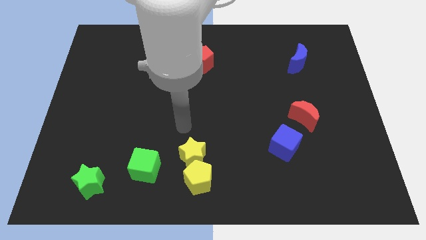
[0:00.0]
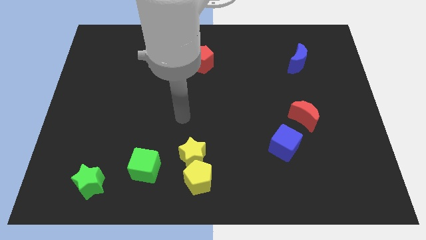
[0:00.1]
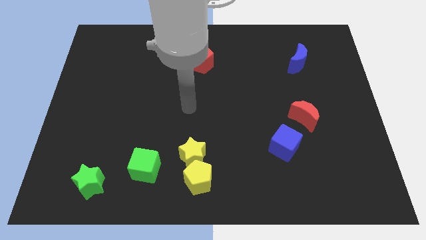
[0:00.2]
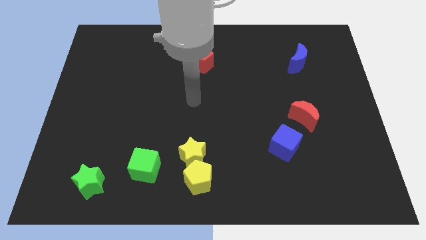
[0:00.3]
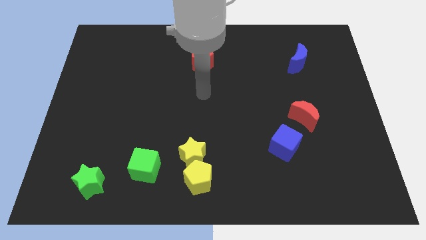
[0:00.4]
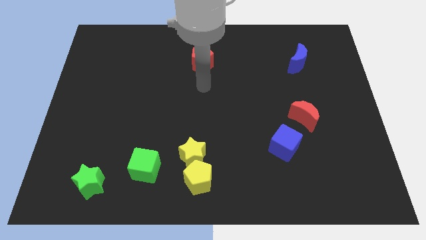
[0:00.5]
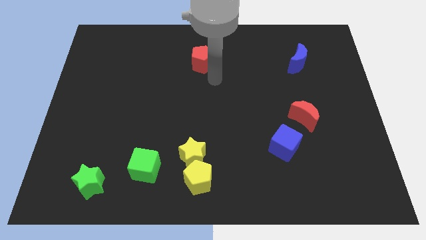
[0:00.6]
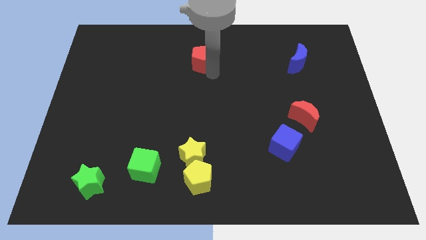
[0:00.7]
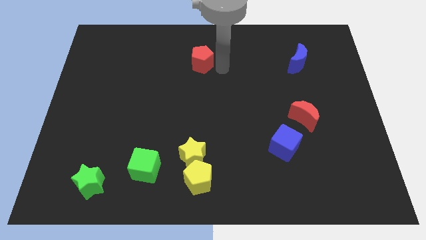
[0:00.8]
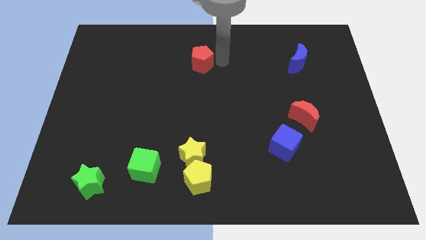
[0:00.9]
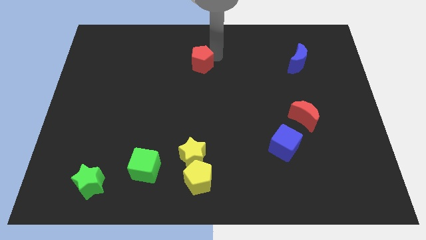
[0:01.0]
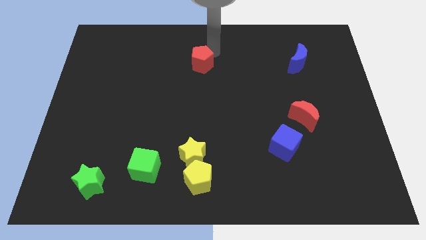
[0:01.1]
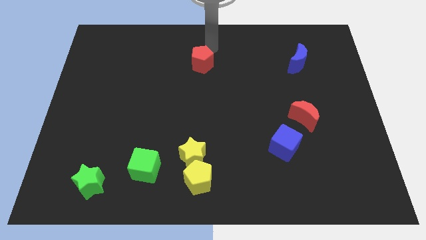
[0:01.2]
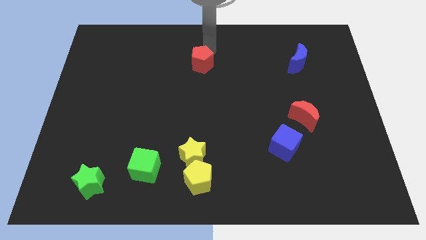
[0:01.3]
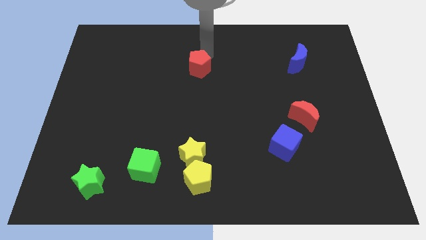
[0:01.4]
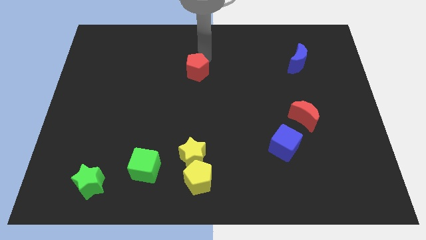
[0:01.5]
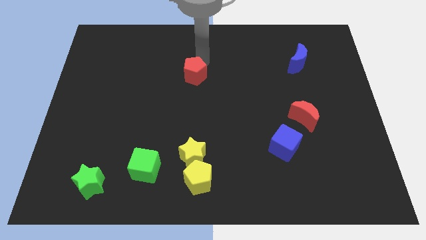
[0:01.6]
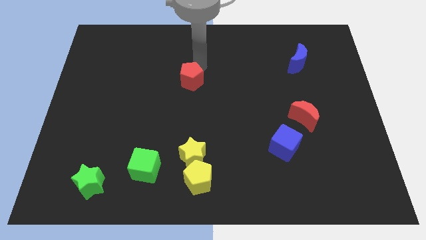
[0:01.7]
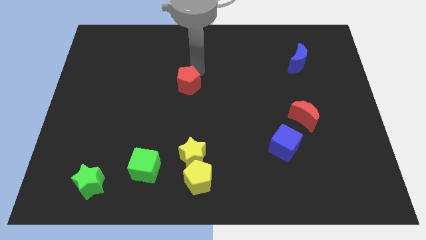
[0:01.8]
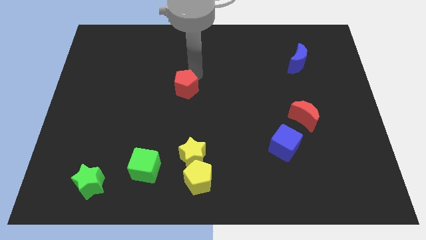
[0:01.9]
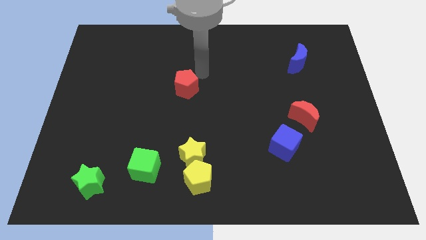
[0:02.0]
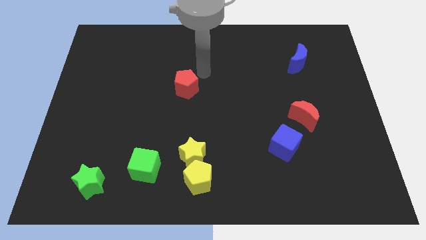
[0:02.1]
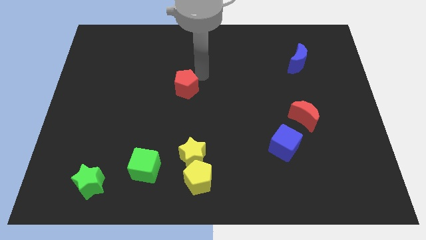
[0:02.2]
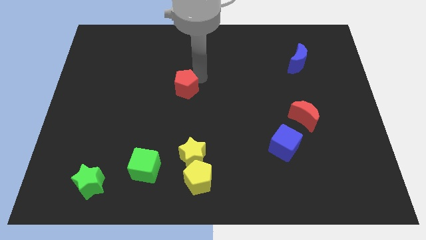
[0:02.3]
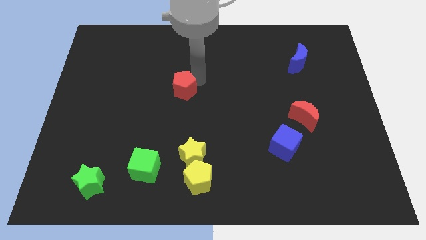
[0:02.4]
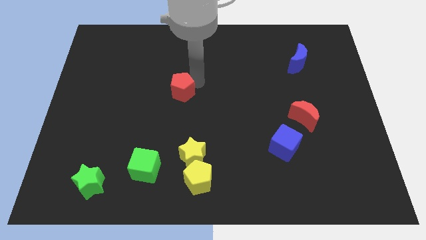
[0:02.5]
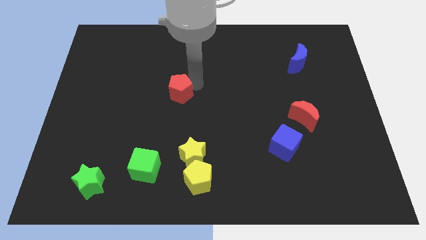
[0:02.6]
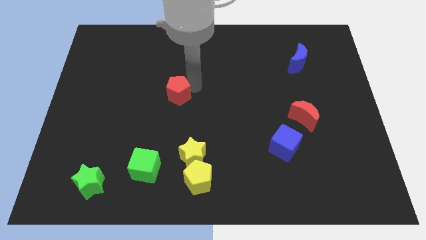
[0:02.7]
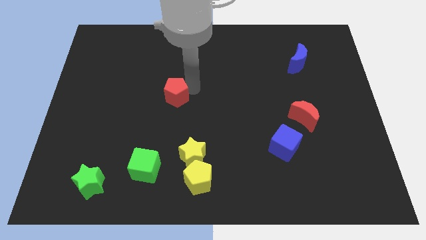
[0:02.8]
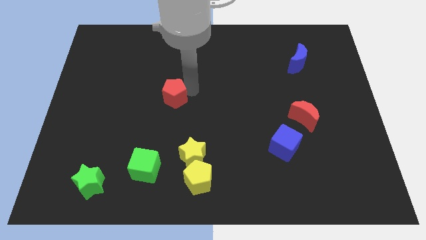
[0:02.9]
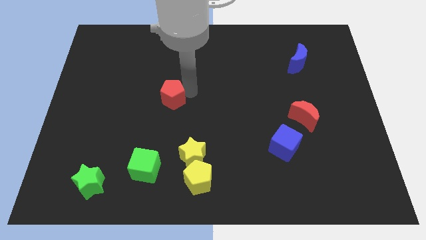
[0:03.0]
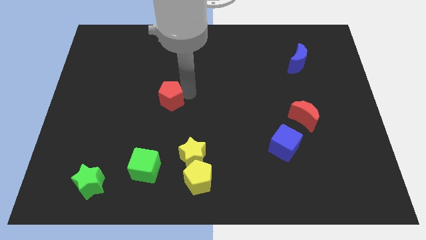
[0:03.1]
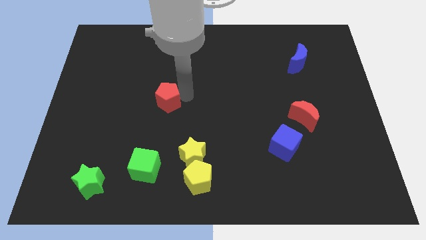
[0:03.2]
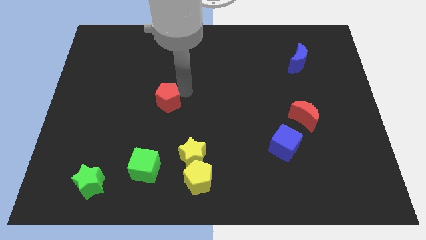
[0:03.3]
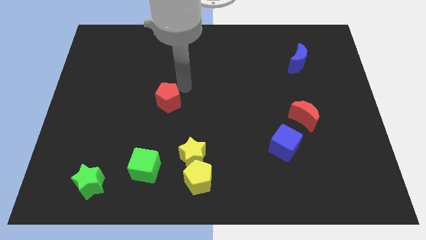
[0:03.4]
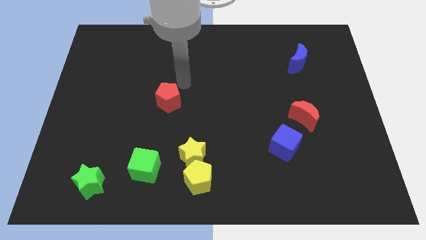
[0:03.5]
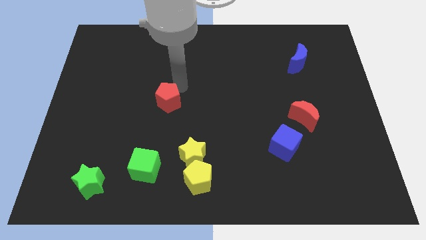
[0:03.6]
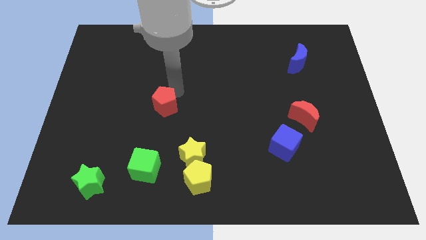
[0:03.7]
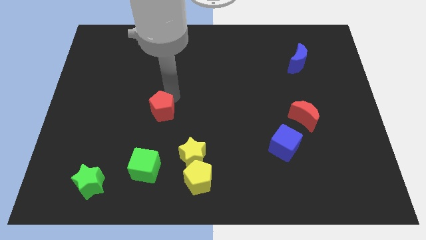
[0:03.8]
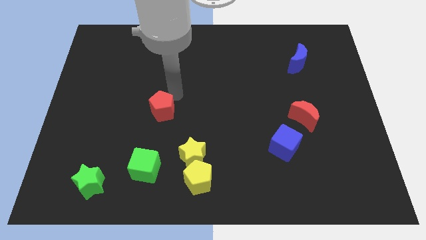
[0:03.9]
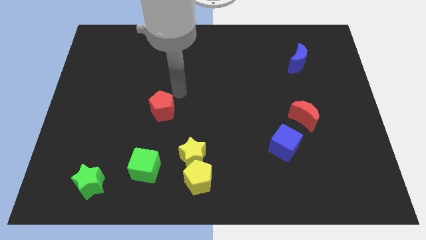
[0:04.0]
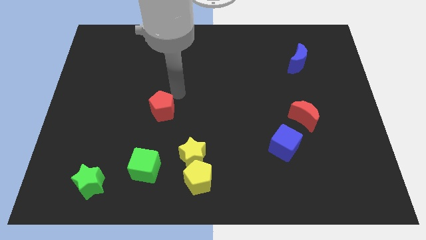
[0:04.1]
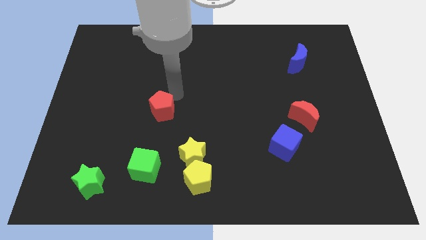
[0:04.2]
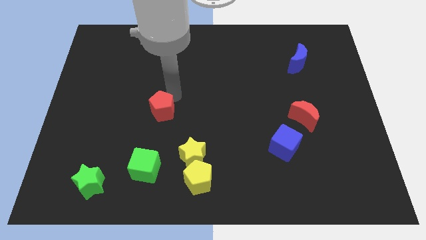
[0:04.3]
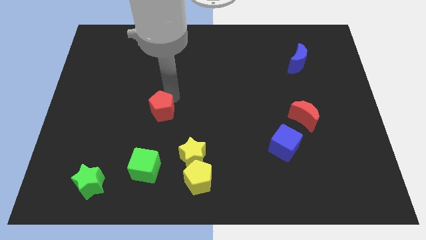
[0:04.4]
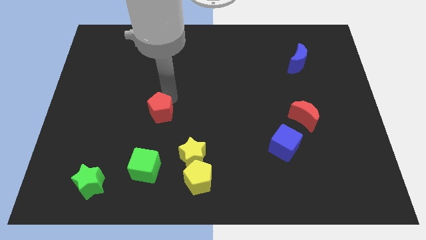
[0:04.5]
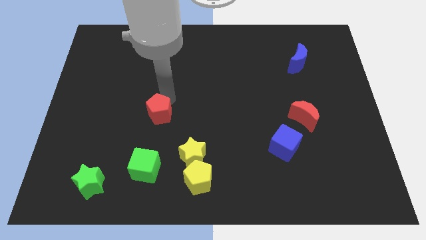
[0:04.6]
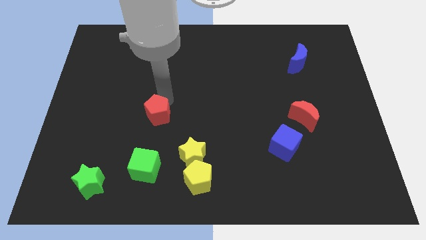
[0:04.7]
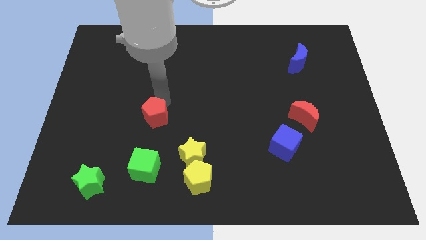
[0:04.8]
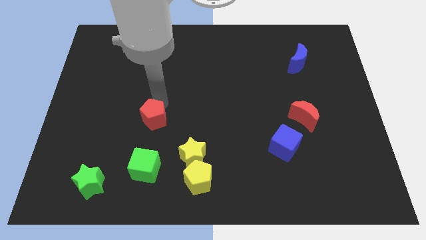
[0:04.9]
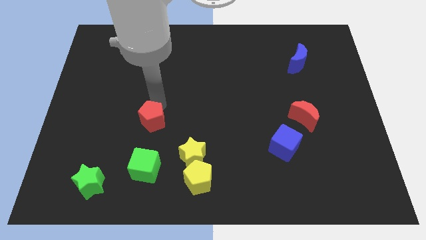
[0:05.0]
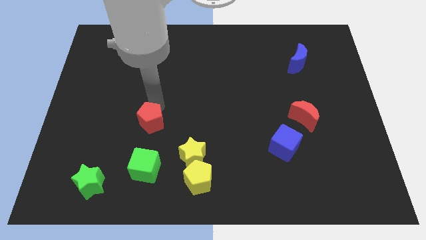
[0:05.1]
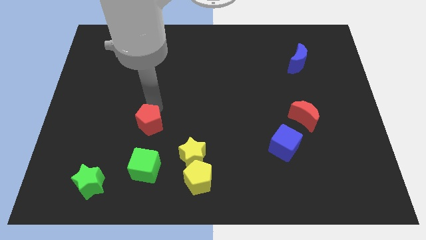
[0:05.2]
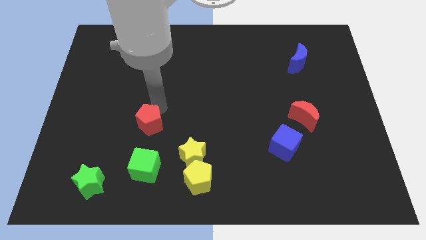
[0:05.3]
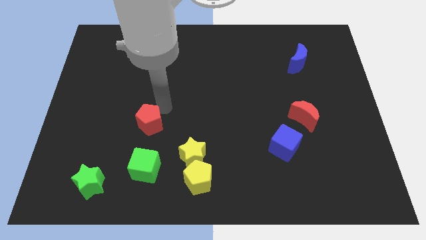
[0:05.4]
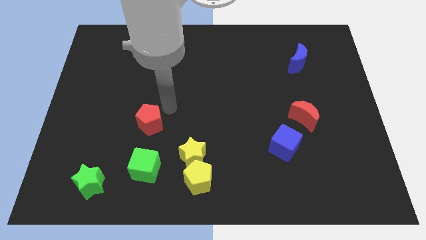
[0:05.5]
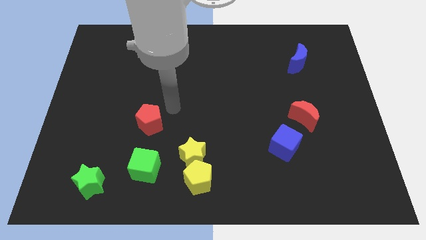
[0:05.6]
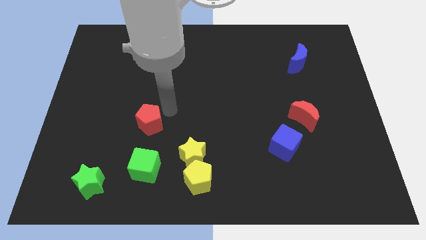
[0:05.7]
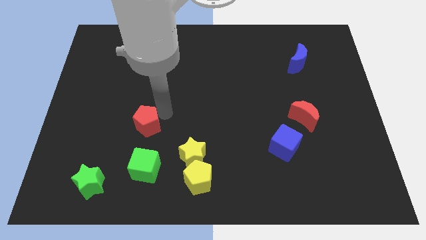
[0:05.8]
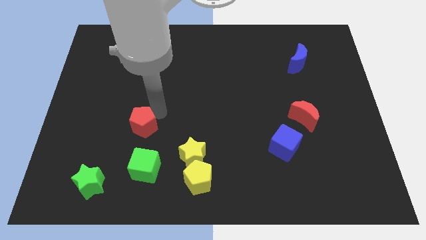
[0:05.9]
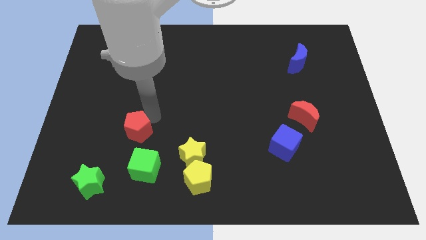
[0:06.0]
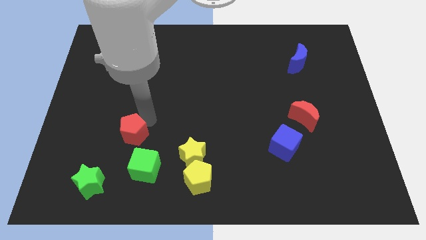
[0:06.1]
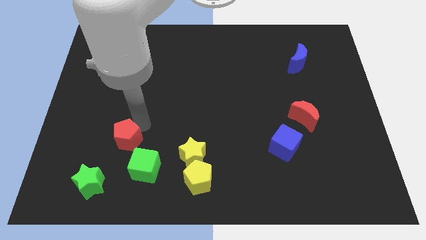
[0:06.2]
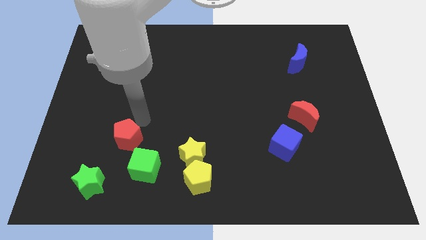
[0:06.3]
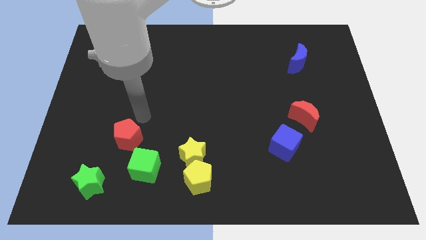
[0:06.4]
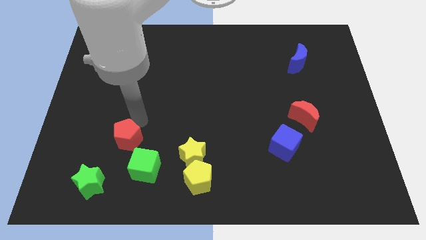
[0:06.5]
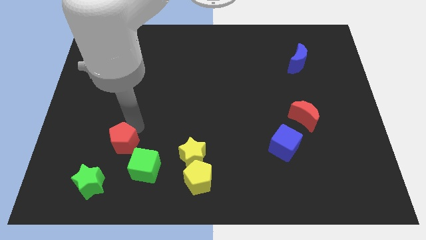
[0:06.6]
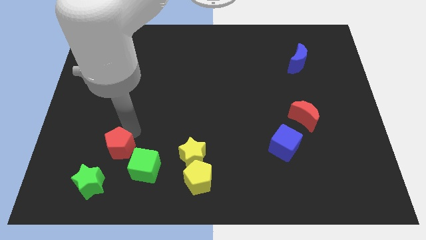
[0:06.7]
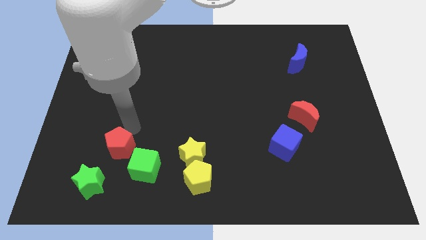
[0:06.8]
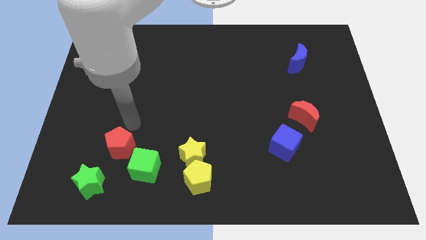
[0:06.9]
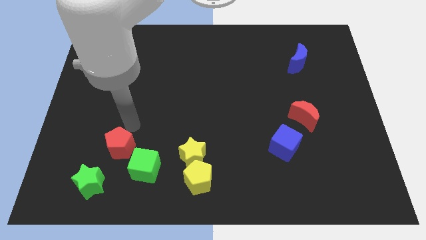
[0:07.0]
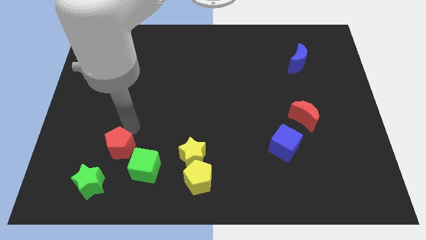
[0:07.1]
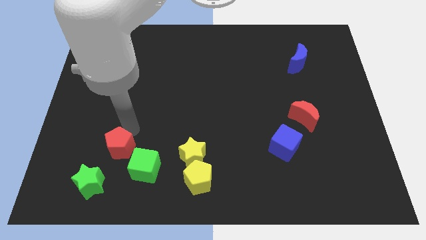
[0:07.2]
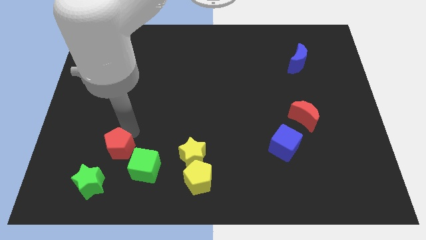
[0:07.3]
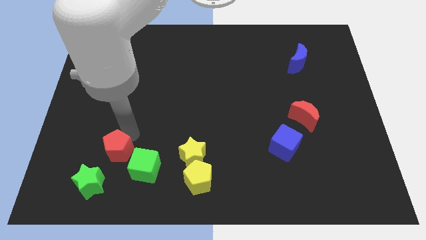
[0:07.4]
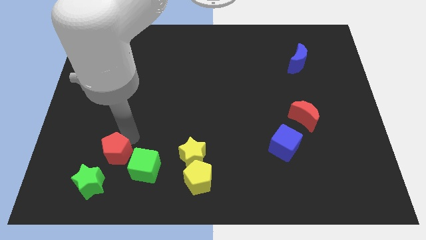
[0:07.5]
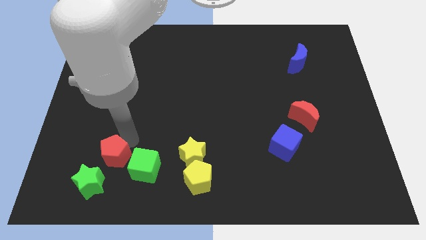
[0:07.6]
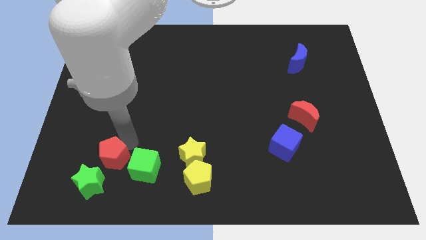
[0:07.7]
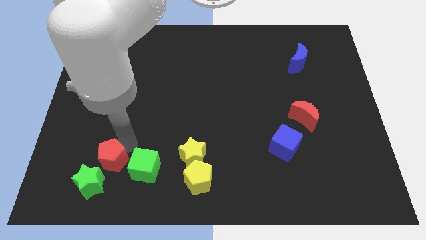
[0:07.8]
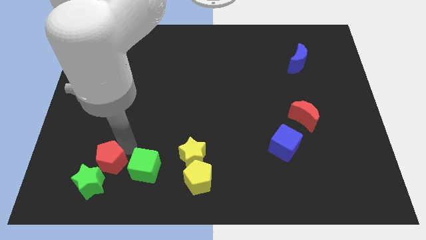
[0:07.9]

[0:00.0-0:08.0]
move the red pentagon towards the green star
